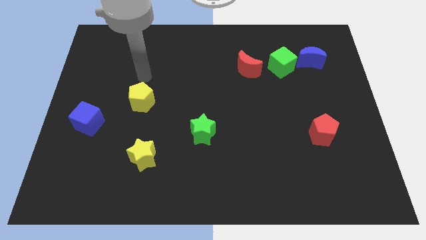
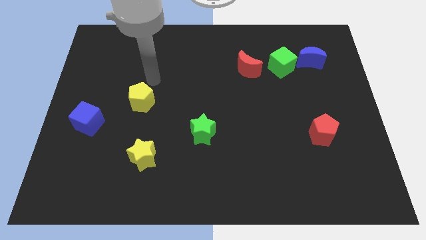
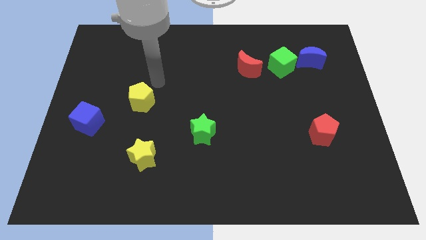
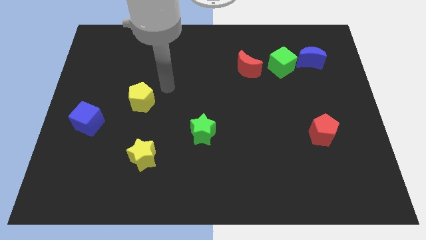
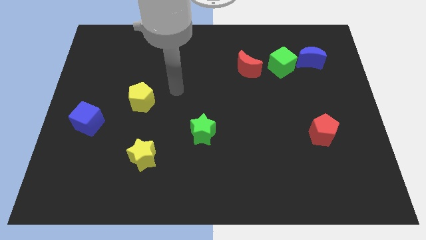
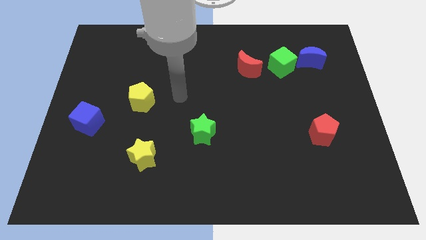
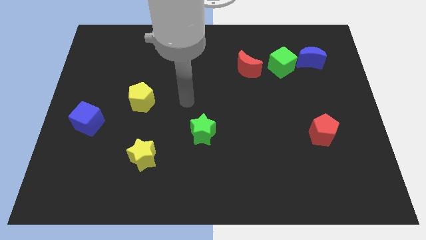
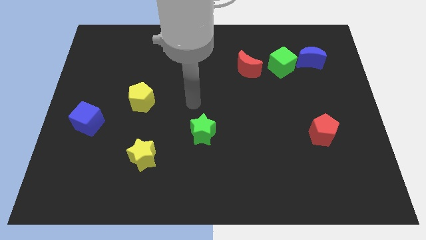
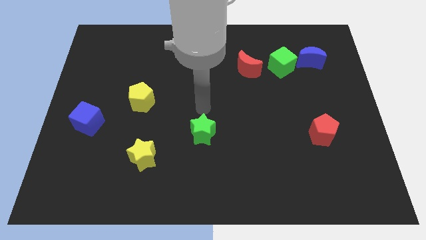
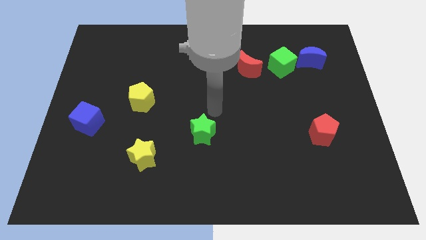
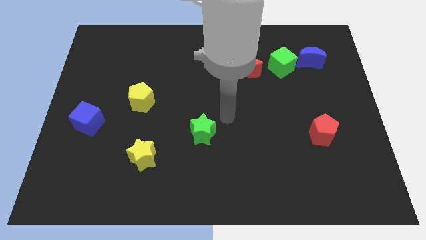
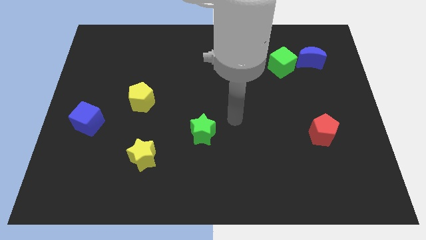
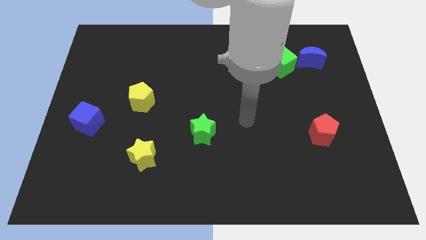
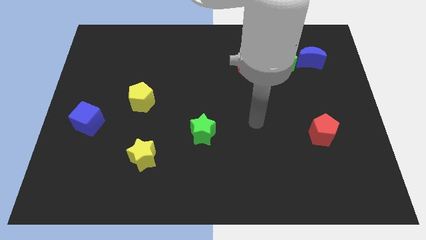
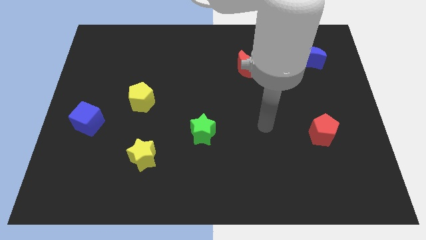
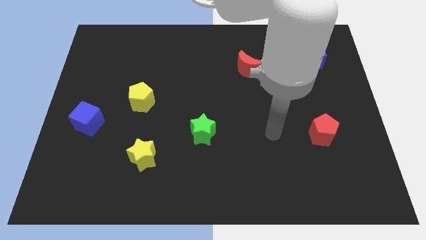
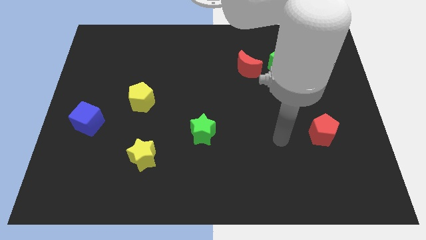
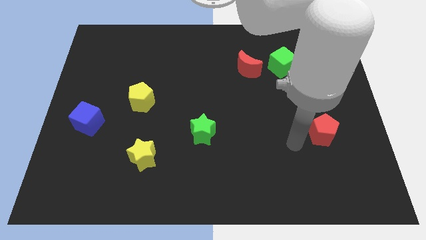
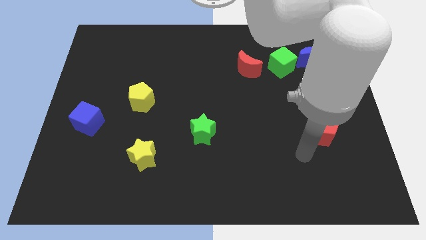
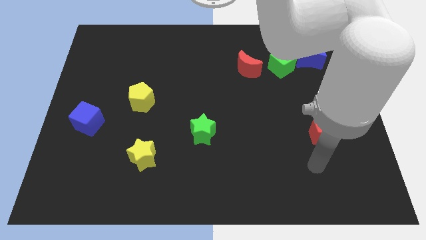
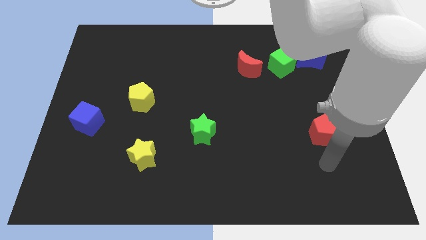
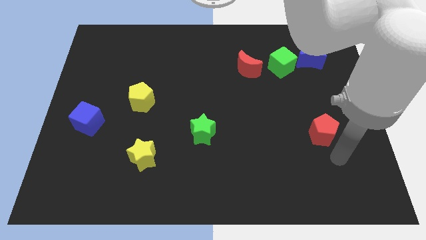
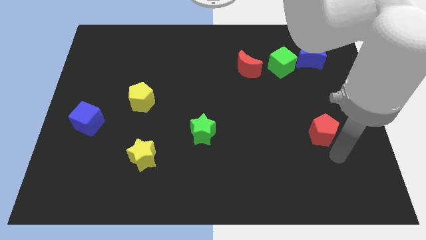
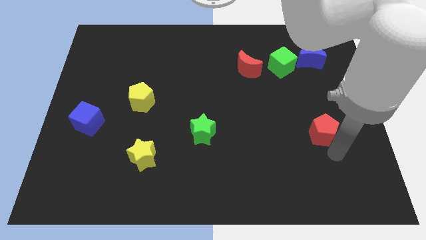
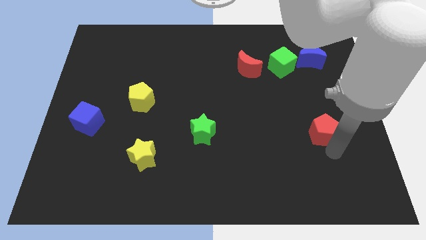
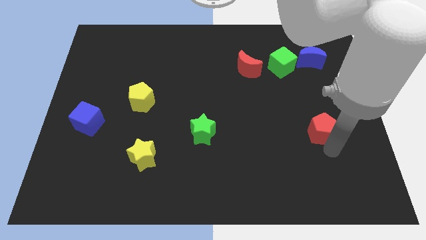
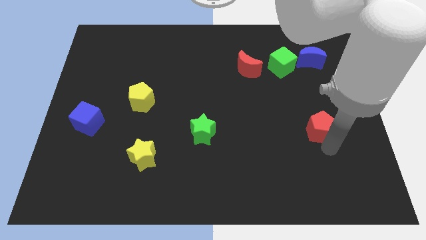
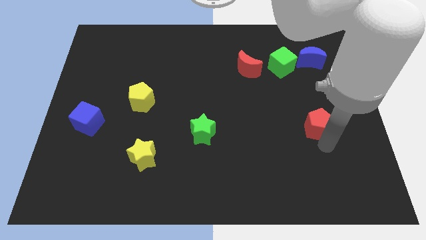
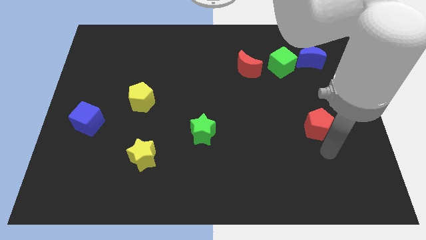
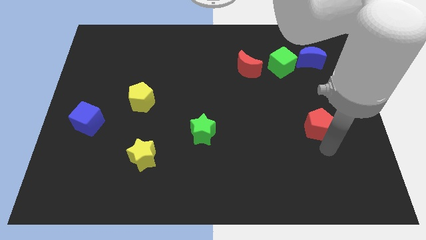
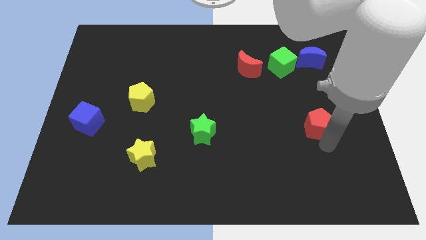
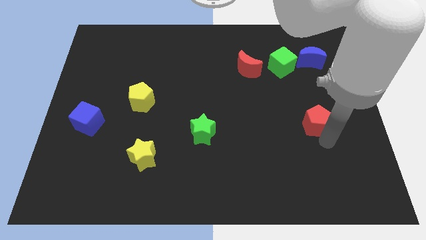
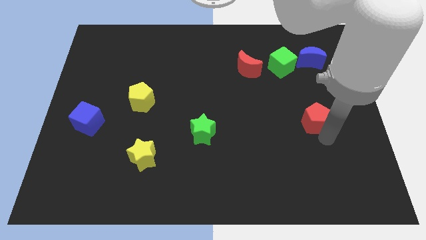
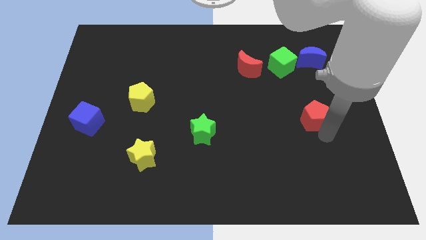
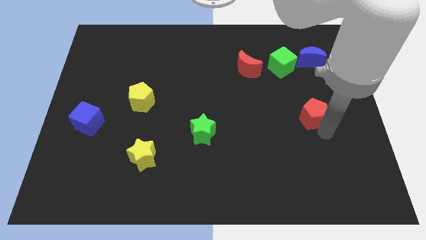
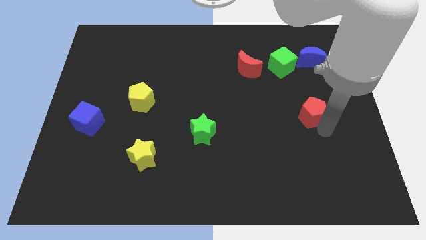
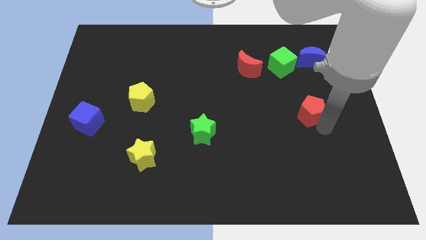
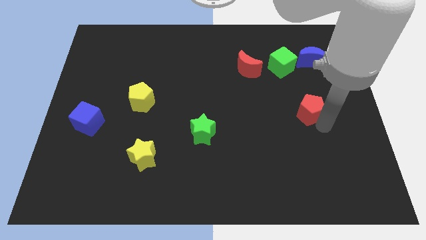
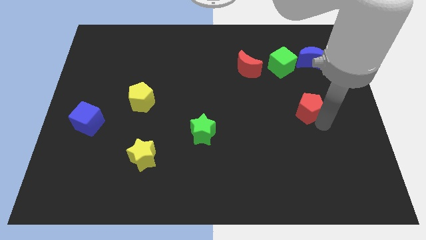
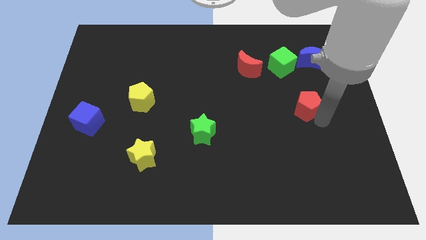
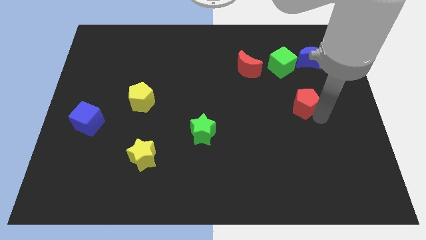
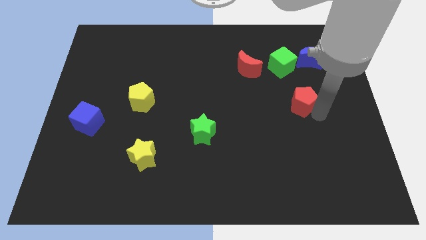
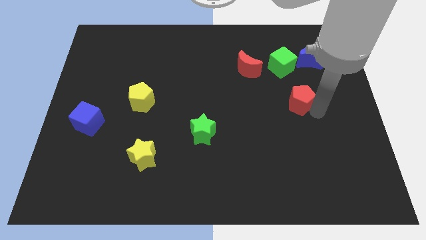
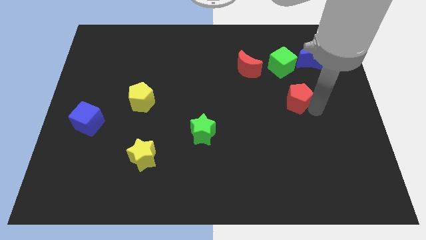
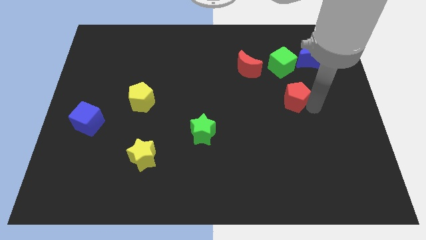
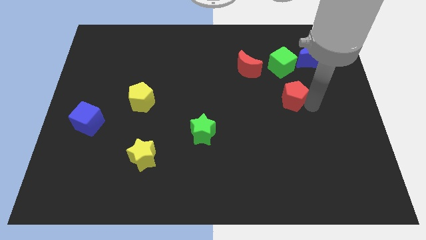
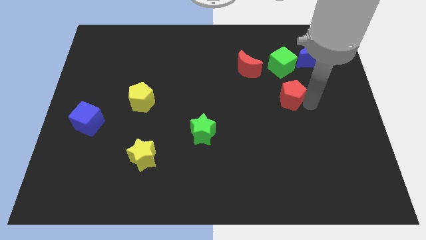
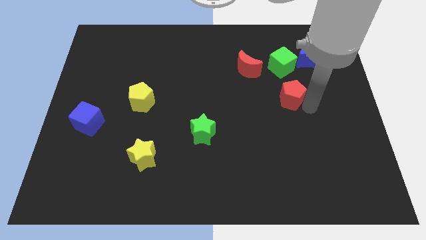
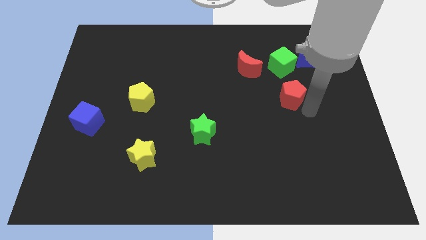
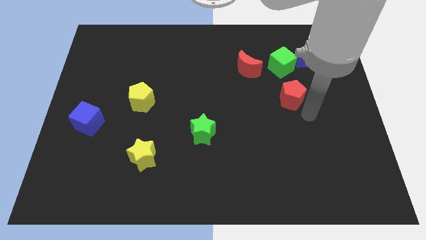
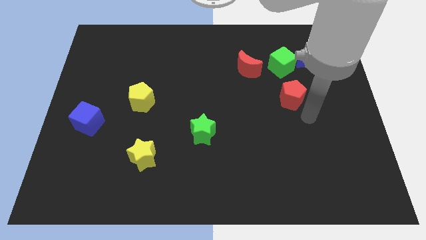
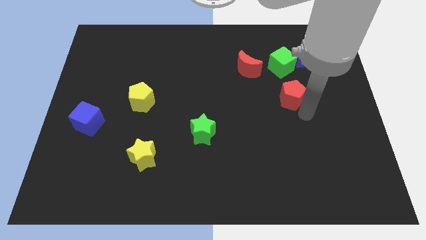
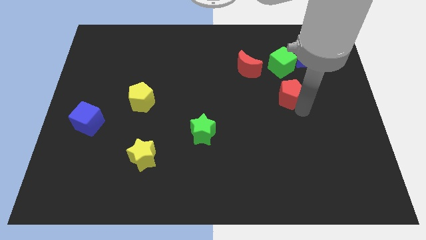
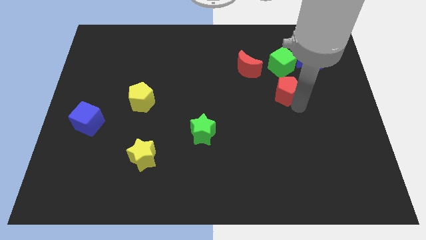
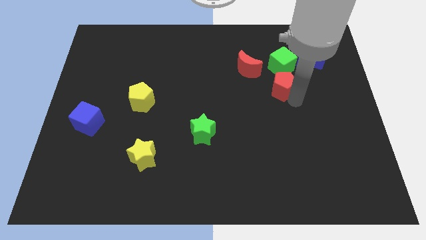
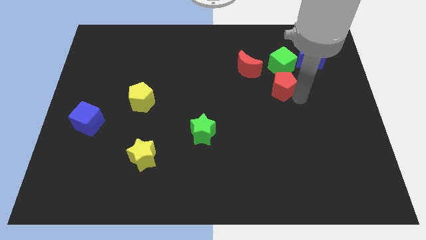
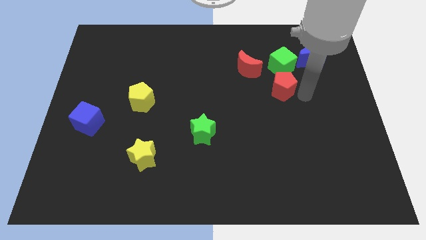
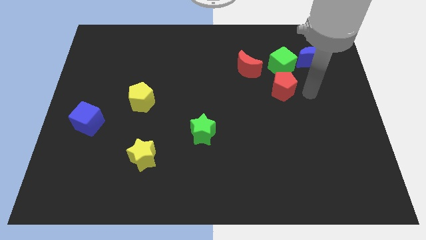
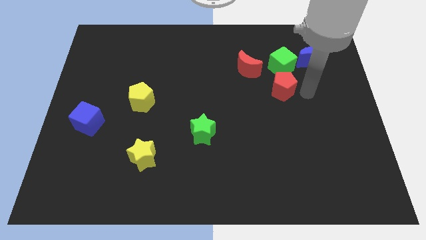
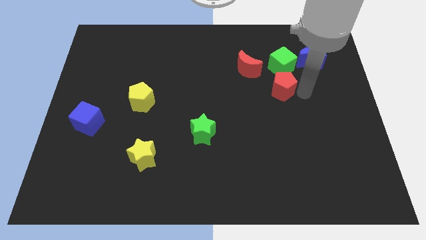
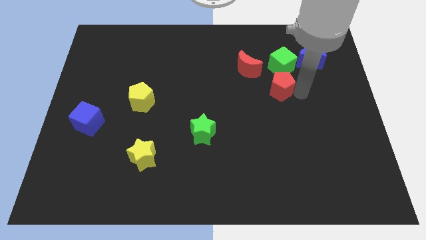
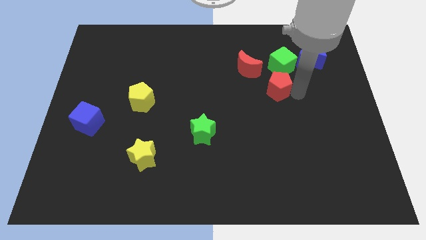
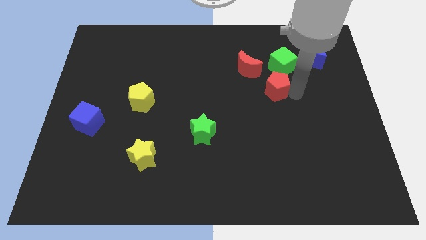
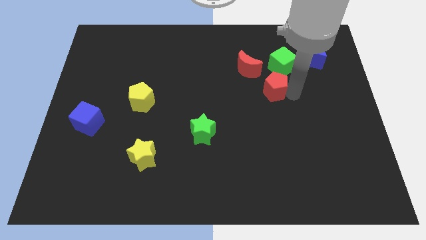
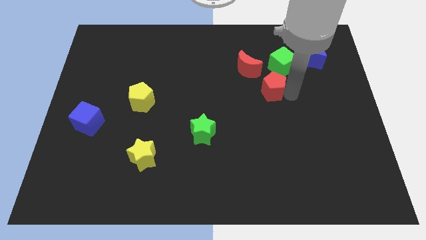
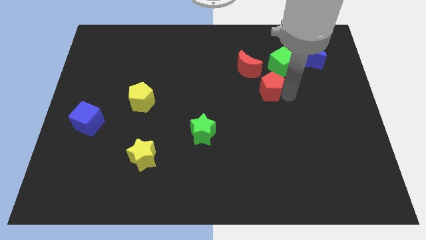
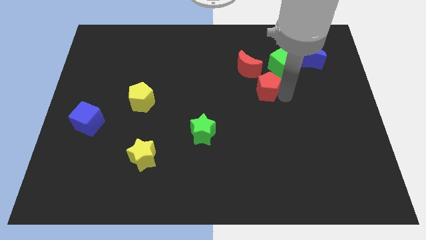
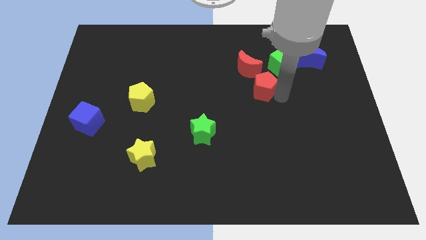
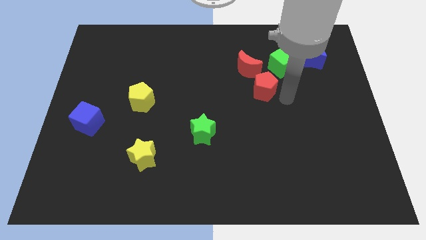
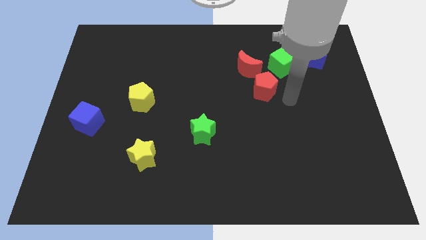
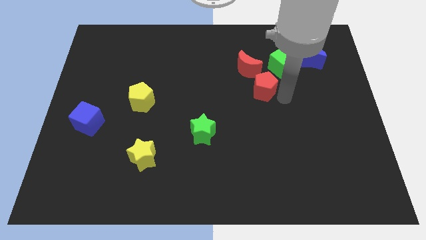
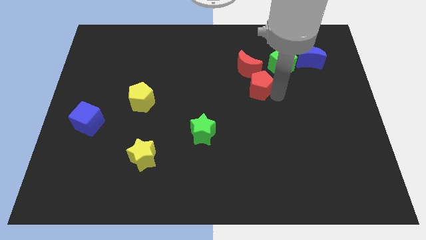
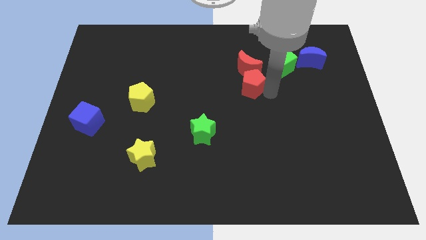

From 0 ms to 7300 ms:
move the red pentagon up and to the left diagonally

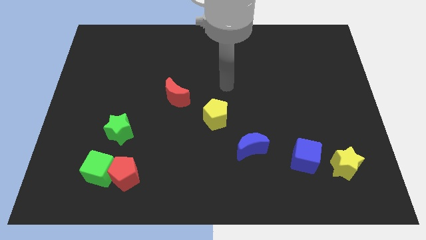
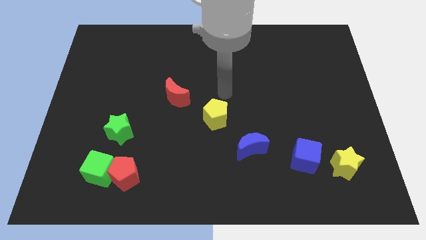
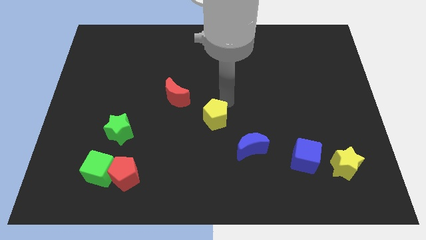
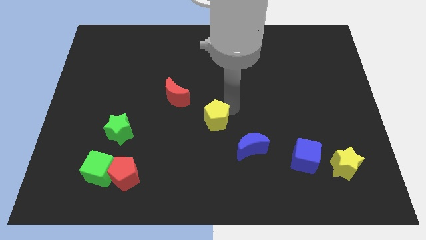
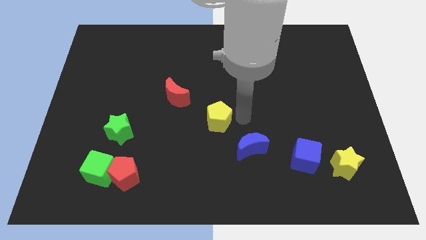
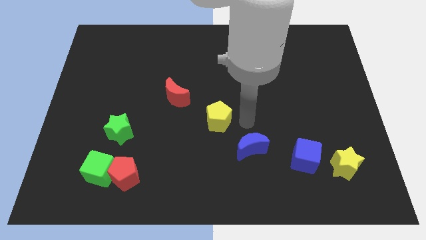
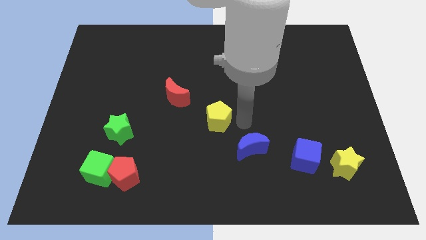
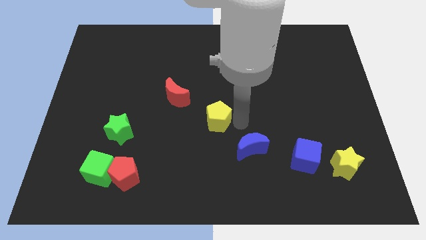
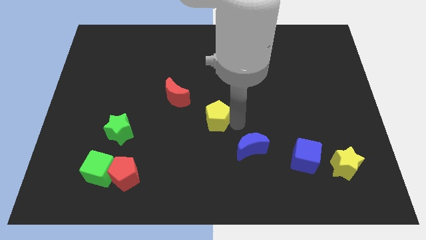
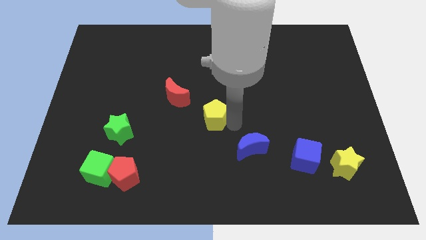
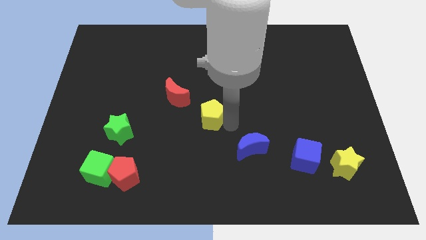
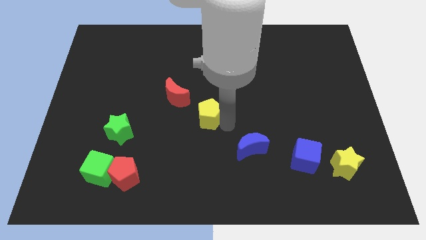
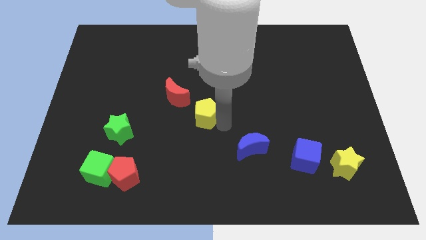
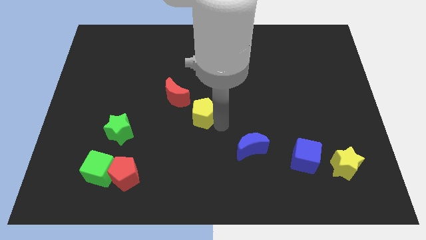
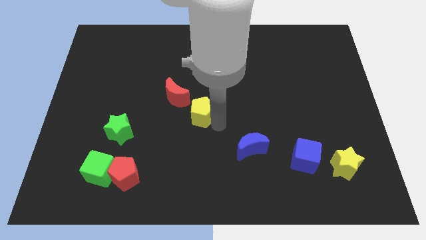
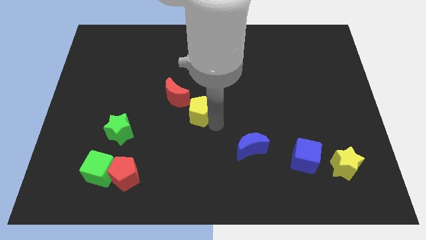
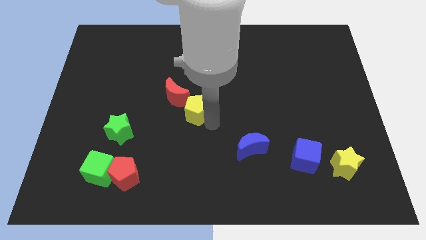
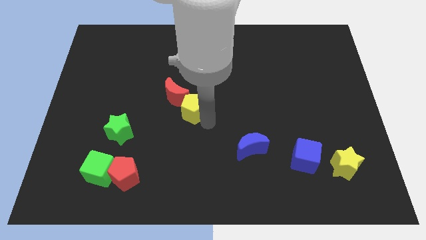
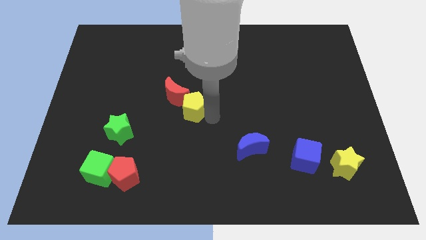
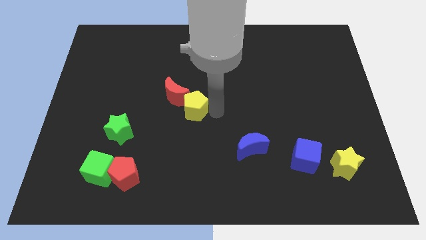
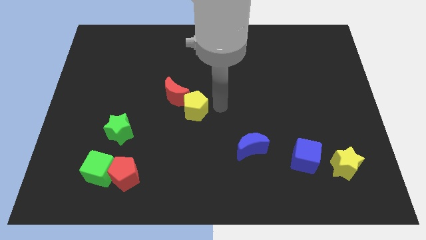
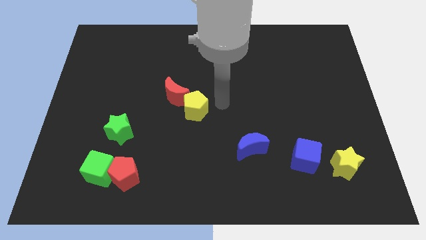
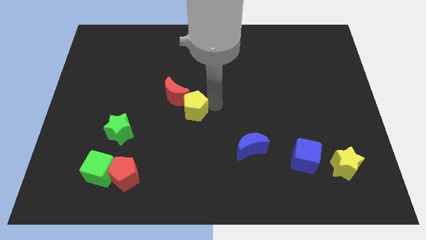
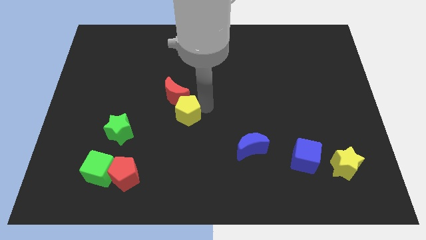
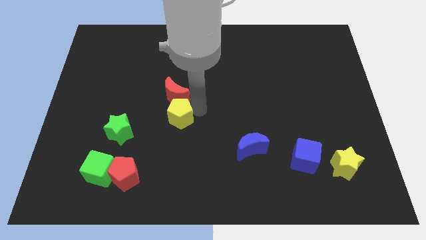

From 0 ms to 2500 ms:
slightly slide the yellow pentagon to the left
